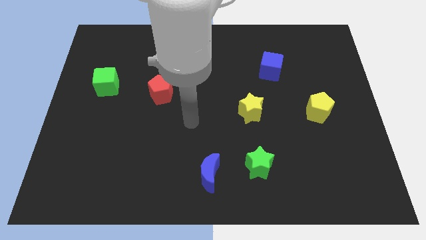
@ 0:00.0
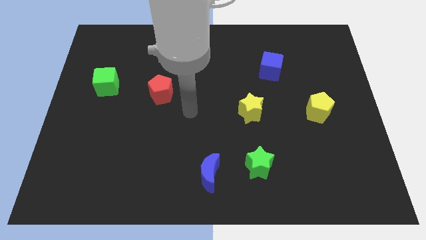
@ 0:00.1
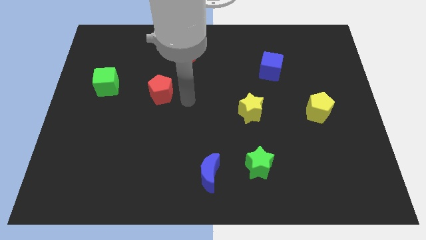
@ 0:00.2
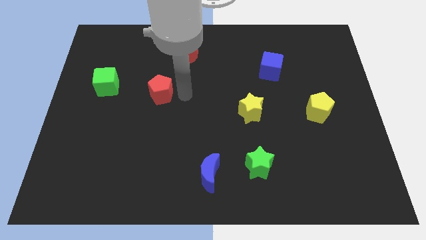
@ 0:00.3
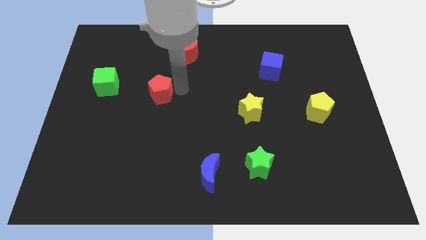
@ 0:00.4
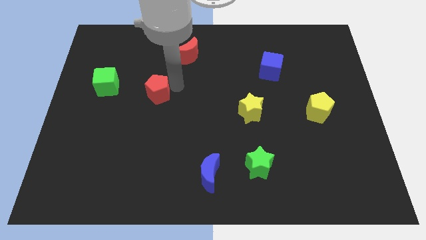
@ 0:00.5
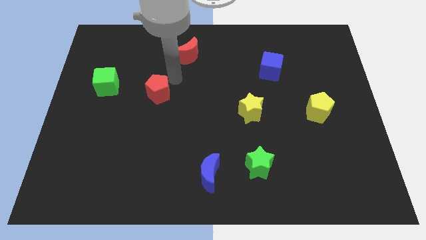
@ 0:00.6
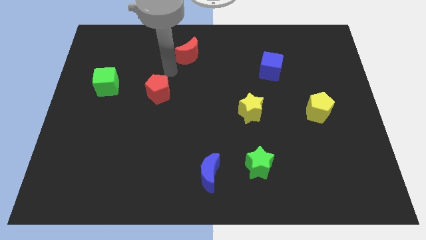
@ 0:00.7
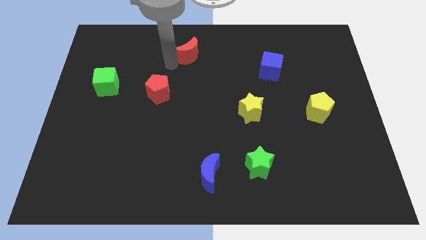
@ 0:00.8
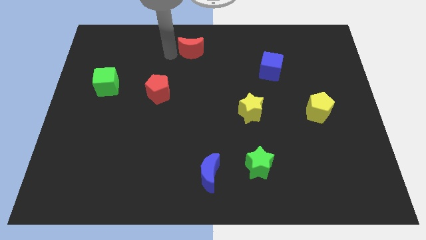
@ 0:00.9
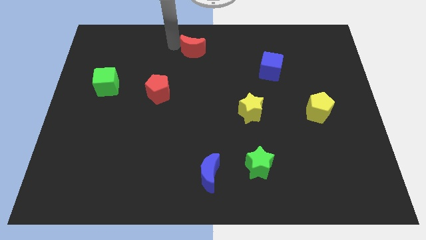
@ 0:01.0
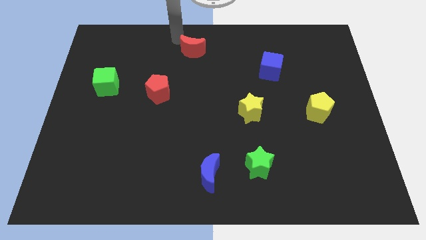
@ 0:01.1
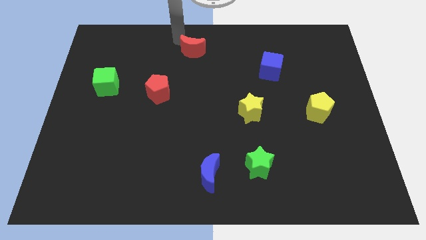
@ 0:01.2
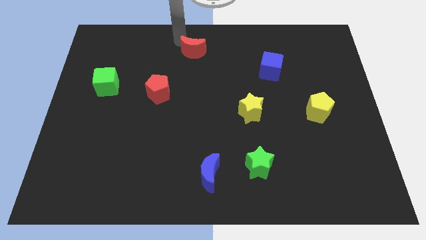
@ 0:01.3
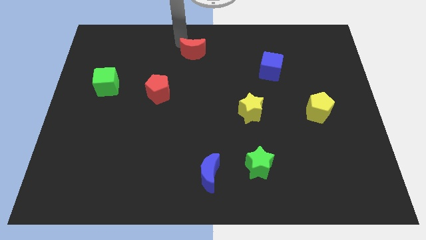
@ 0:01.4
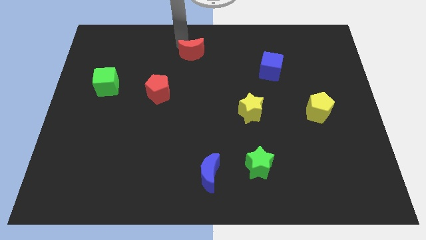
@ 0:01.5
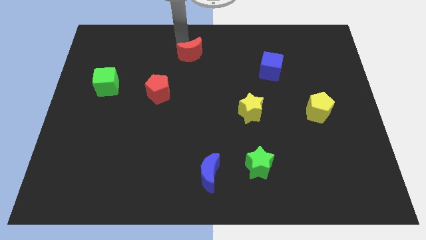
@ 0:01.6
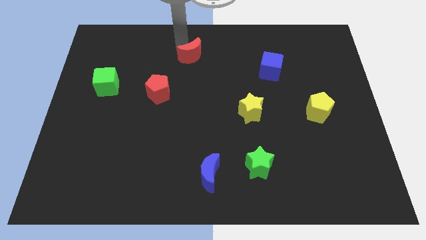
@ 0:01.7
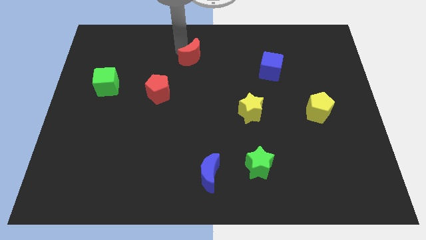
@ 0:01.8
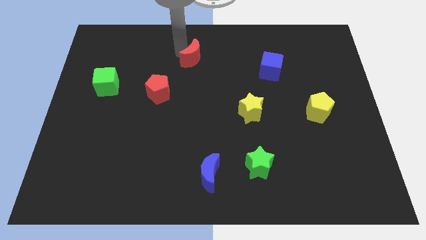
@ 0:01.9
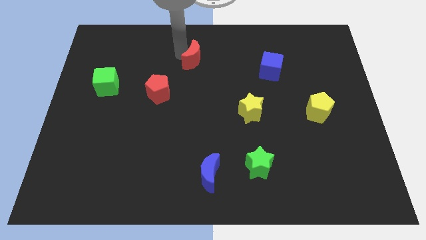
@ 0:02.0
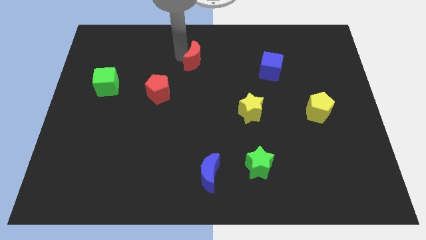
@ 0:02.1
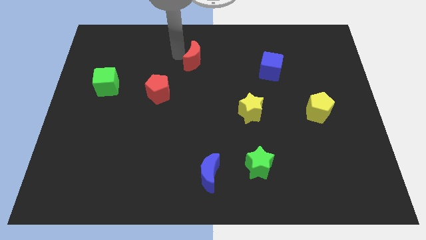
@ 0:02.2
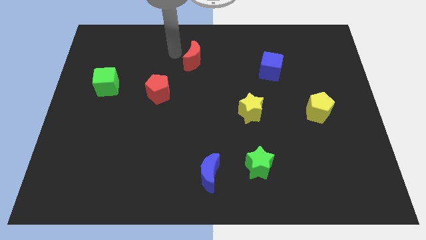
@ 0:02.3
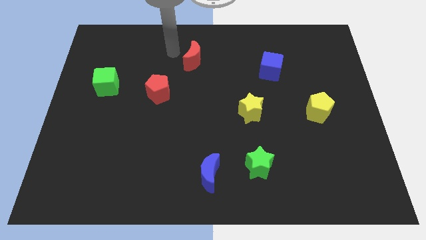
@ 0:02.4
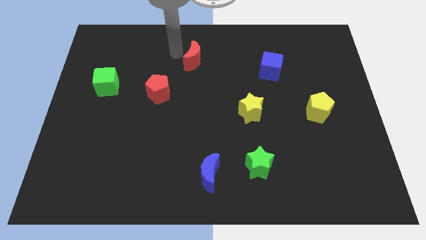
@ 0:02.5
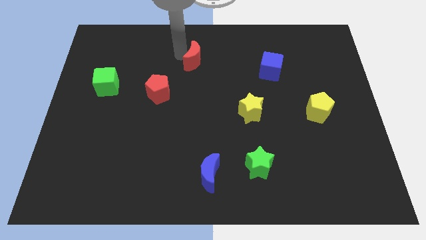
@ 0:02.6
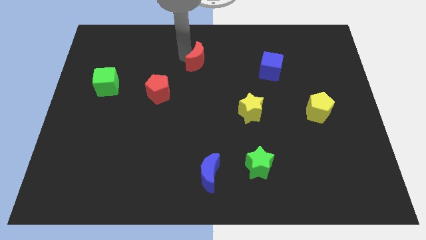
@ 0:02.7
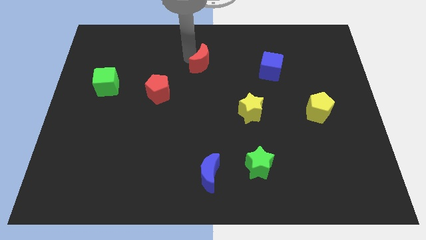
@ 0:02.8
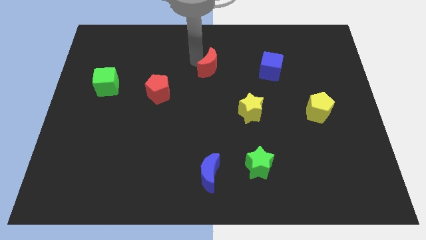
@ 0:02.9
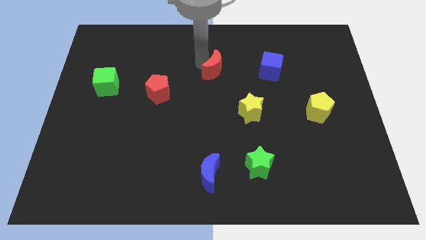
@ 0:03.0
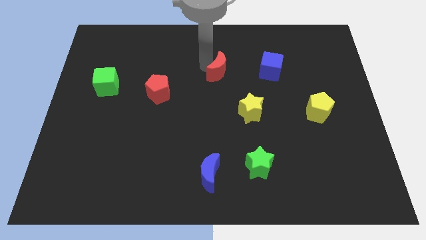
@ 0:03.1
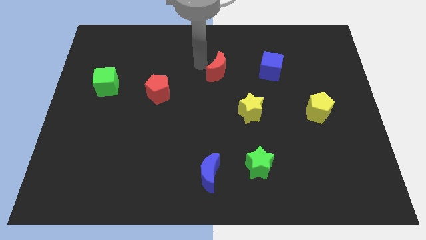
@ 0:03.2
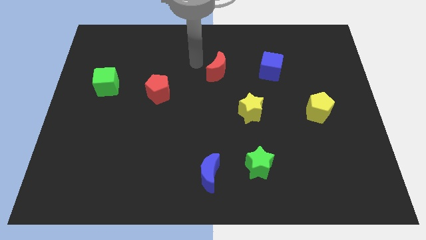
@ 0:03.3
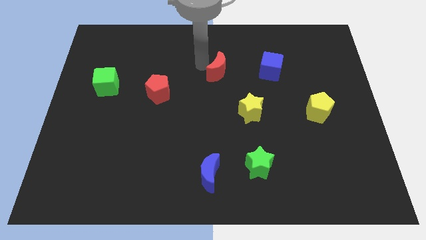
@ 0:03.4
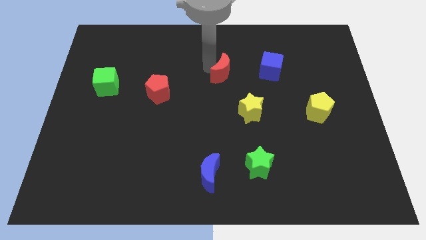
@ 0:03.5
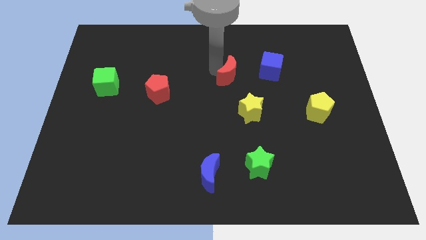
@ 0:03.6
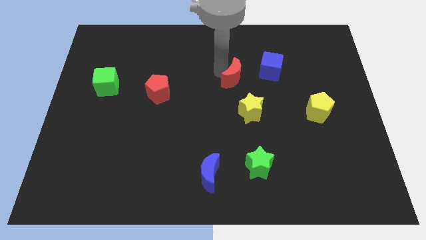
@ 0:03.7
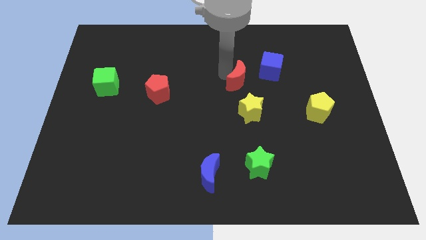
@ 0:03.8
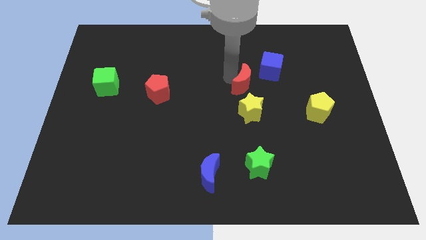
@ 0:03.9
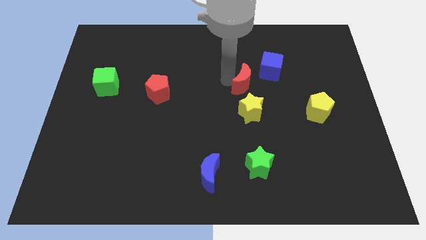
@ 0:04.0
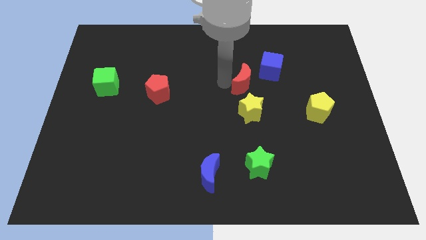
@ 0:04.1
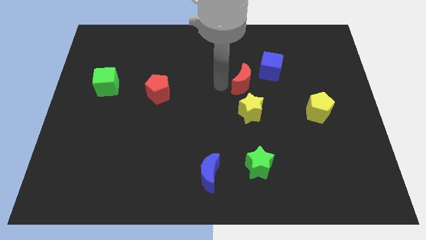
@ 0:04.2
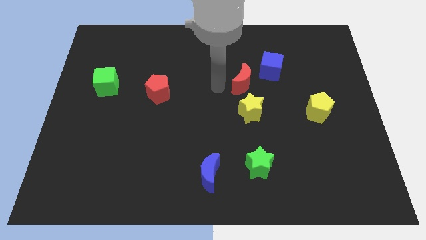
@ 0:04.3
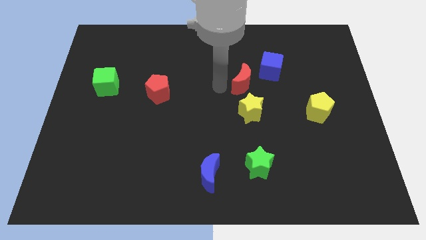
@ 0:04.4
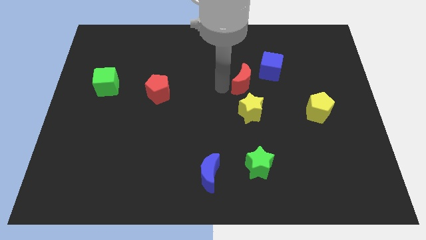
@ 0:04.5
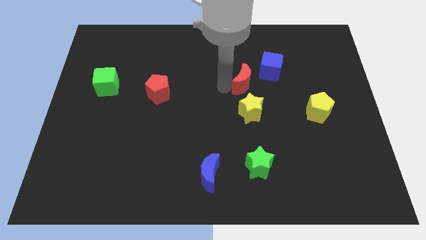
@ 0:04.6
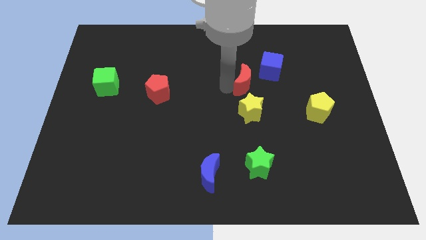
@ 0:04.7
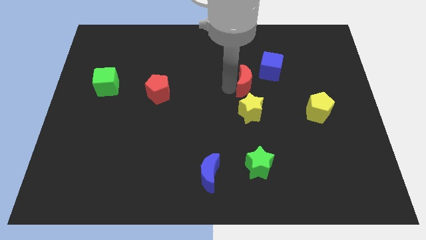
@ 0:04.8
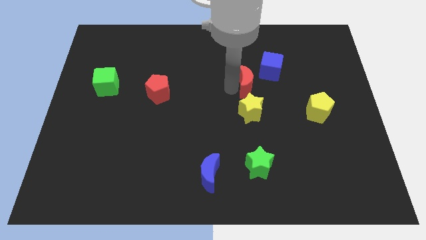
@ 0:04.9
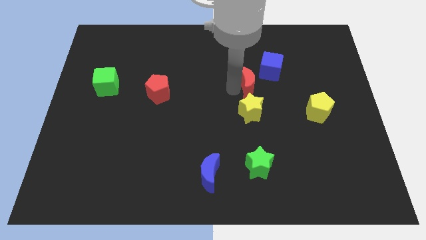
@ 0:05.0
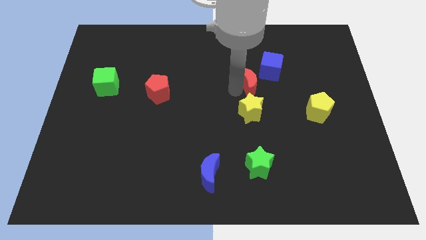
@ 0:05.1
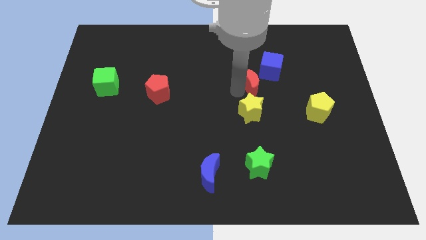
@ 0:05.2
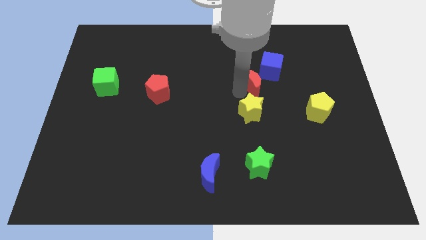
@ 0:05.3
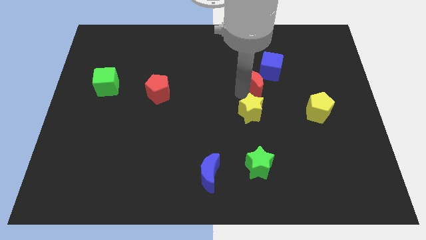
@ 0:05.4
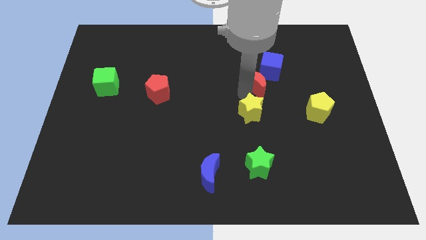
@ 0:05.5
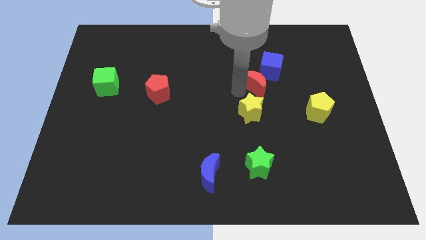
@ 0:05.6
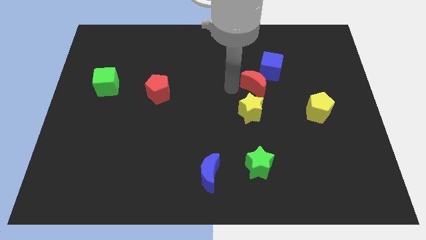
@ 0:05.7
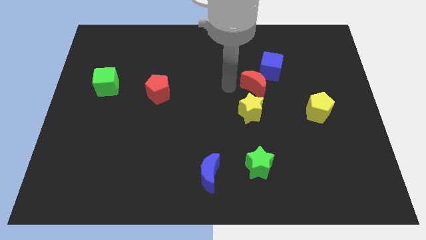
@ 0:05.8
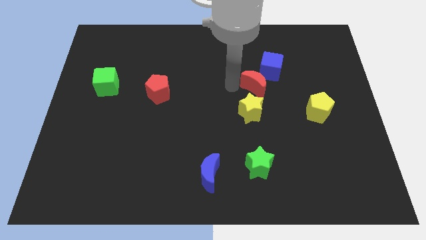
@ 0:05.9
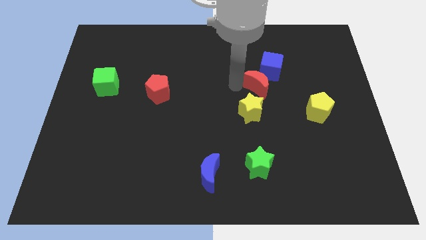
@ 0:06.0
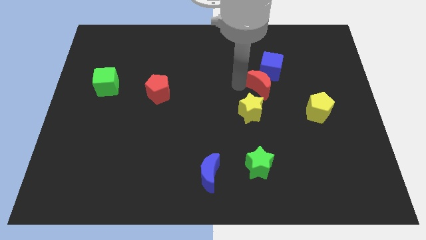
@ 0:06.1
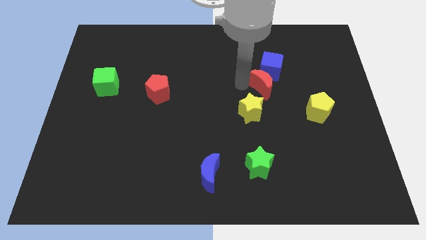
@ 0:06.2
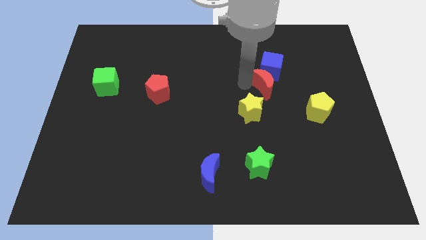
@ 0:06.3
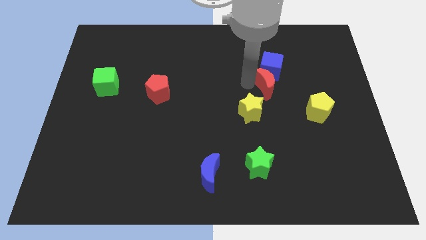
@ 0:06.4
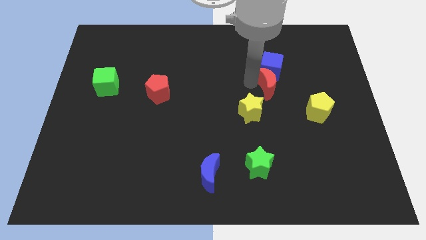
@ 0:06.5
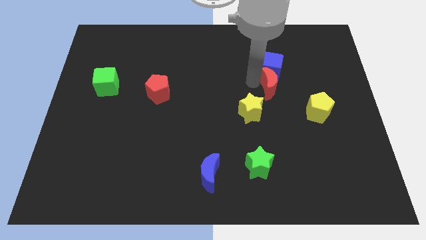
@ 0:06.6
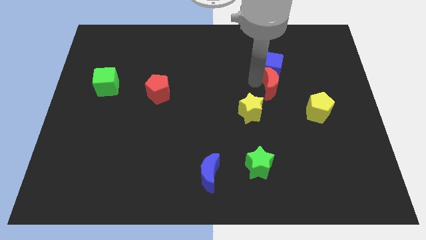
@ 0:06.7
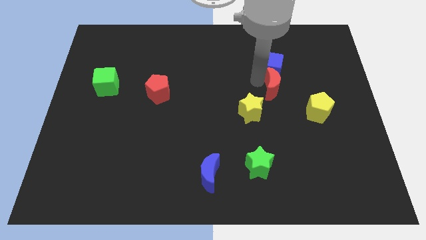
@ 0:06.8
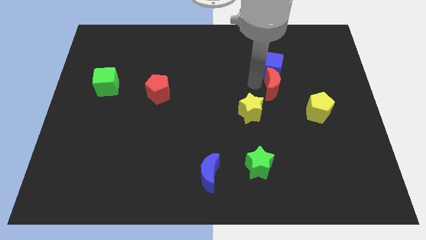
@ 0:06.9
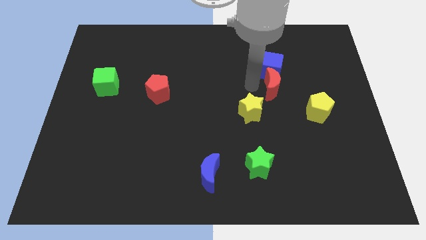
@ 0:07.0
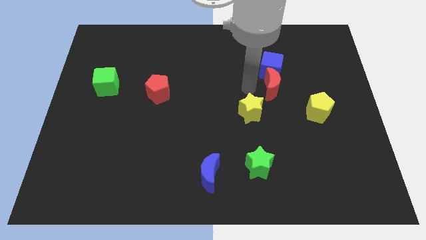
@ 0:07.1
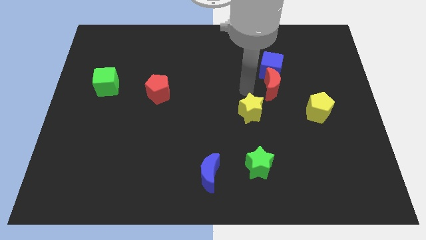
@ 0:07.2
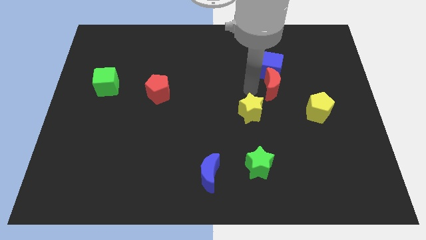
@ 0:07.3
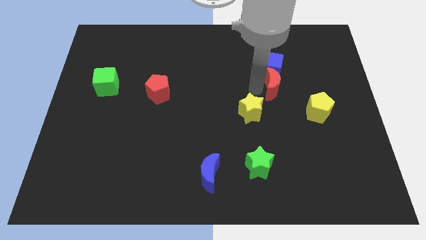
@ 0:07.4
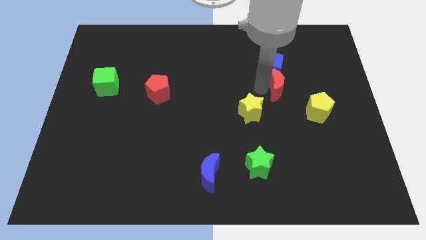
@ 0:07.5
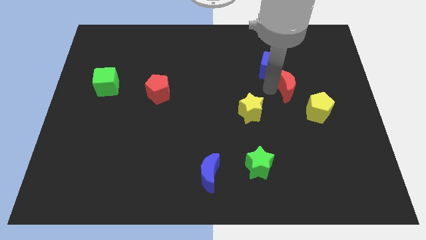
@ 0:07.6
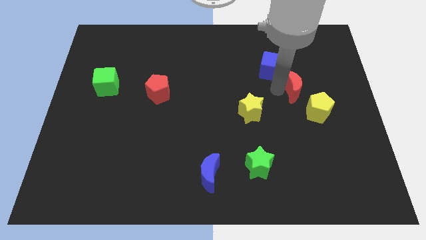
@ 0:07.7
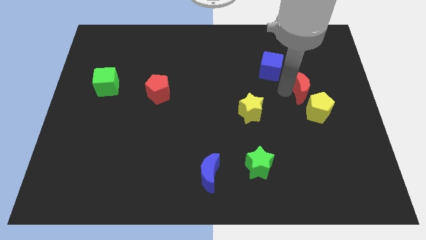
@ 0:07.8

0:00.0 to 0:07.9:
put the red moon to the top side of the yellow pentagon
